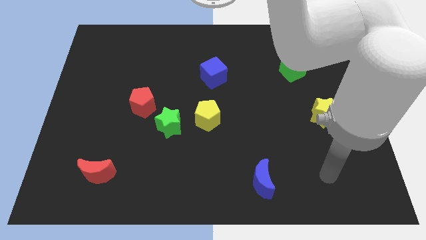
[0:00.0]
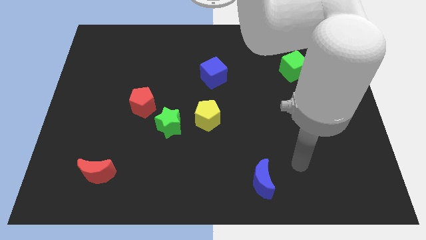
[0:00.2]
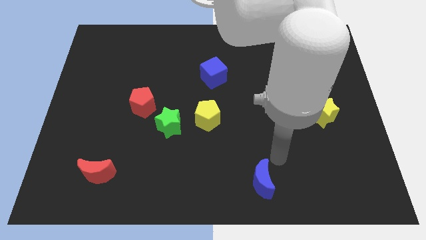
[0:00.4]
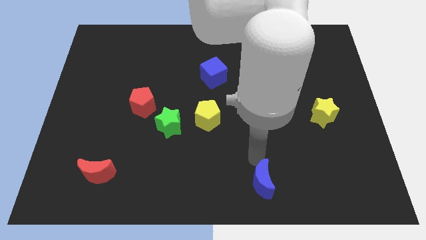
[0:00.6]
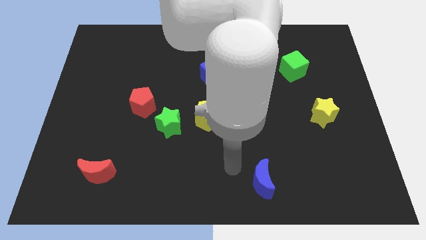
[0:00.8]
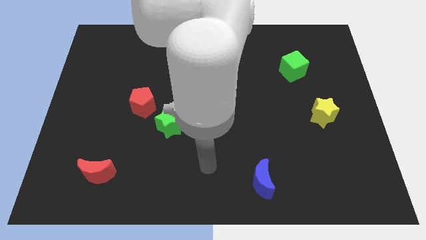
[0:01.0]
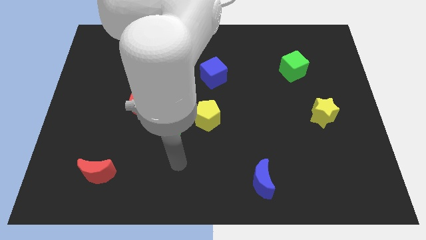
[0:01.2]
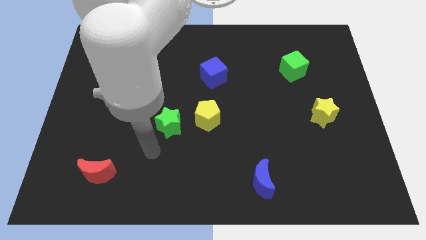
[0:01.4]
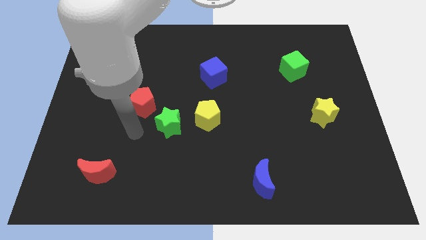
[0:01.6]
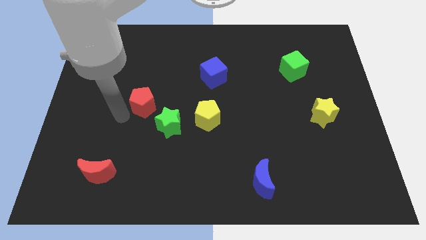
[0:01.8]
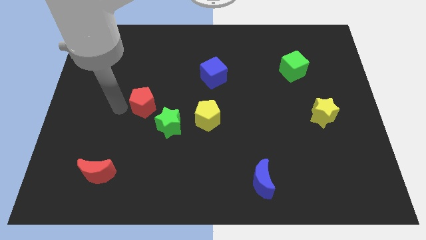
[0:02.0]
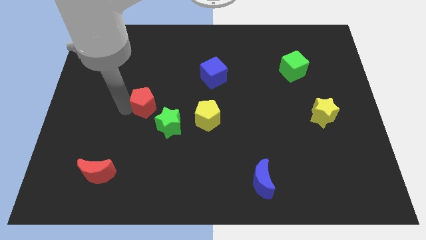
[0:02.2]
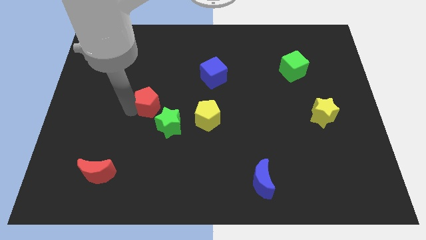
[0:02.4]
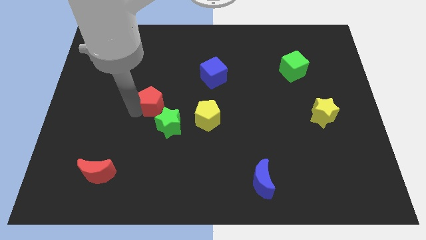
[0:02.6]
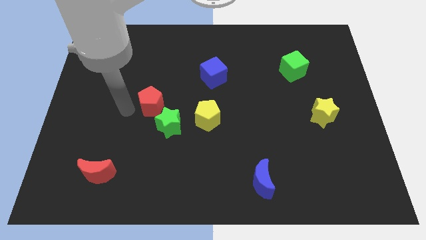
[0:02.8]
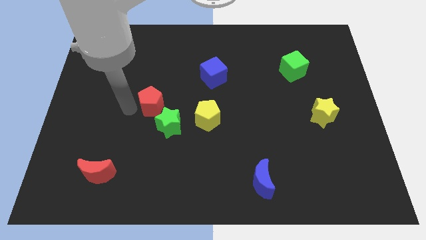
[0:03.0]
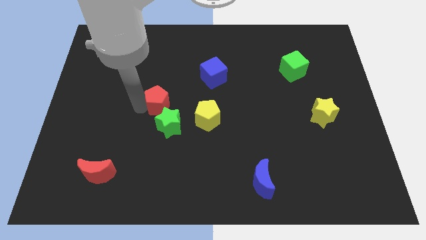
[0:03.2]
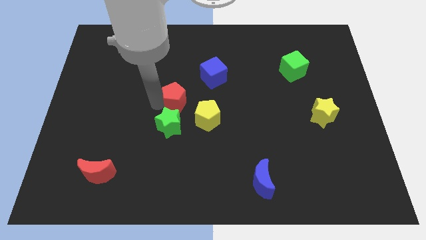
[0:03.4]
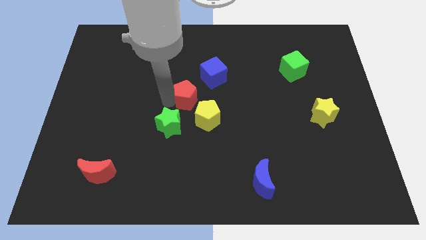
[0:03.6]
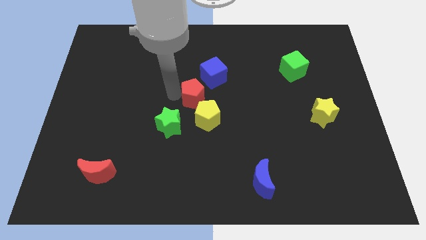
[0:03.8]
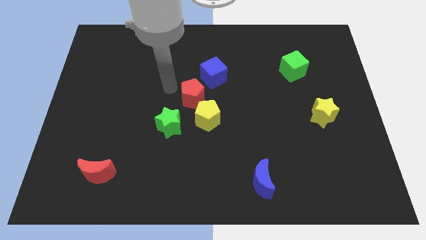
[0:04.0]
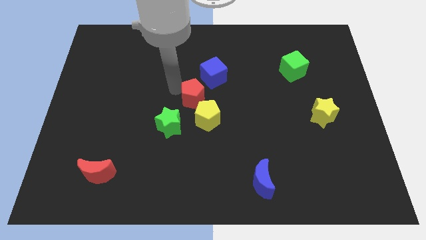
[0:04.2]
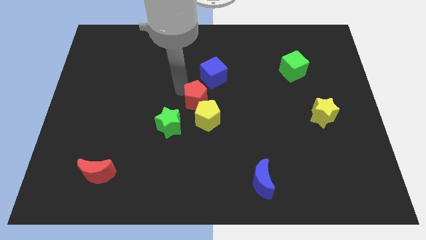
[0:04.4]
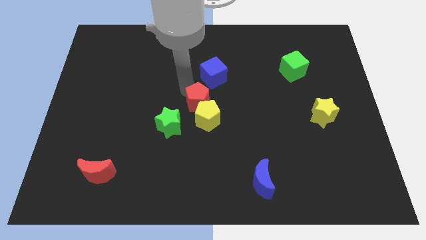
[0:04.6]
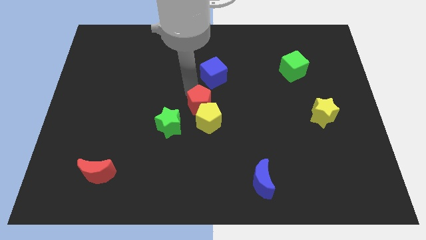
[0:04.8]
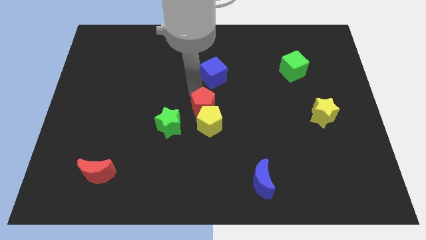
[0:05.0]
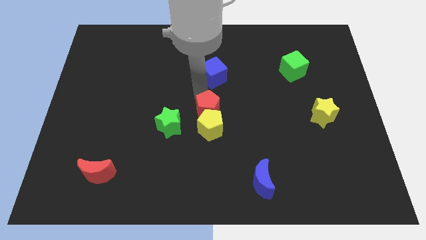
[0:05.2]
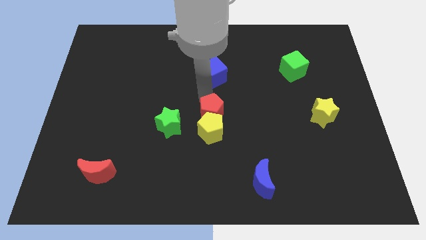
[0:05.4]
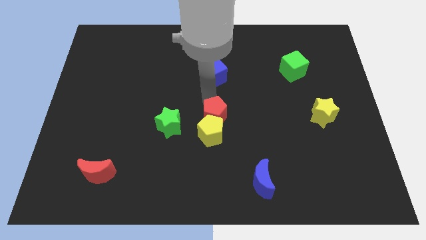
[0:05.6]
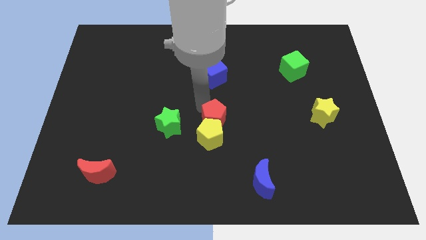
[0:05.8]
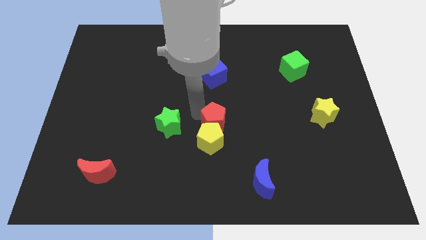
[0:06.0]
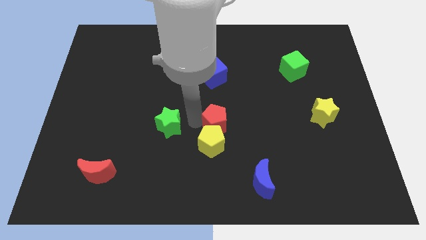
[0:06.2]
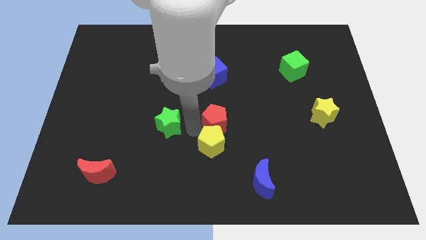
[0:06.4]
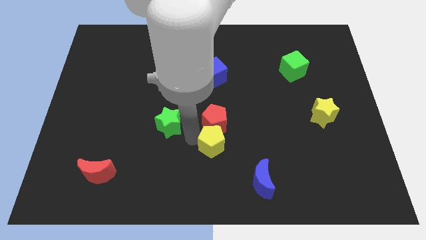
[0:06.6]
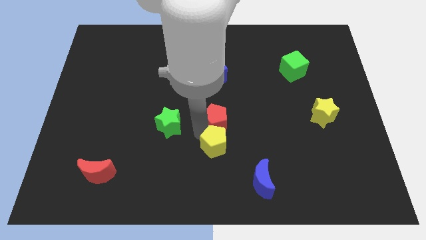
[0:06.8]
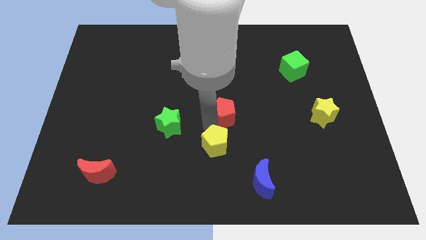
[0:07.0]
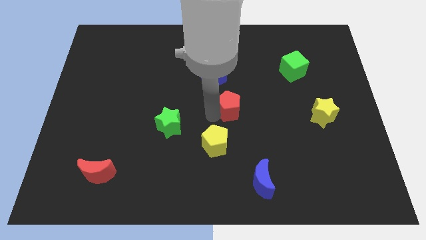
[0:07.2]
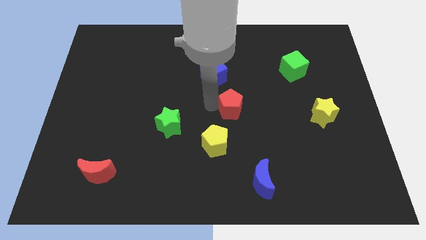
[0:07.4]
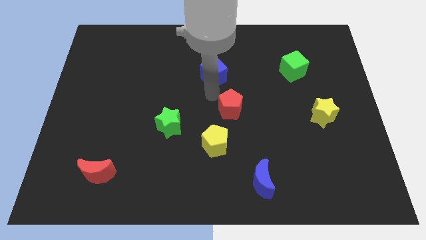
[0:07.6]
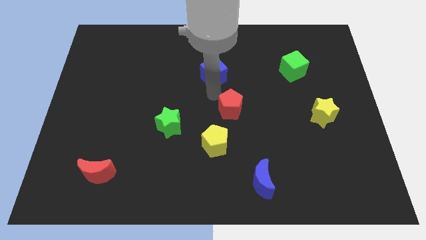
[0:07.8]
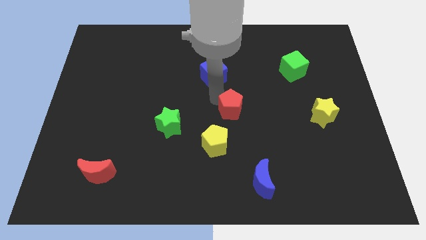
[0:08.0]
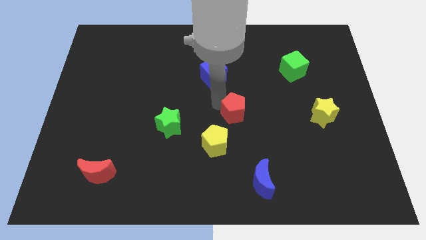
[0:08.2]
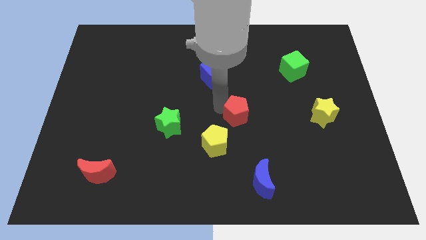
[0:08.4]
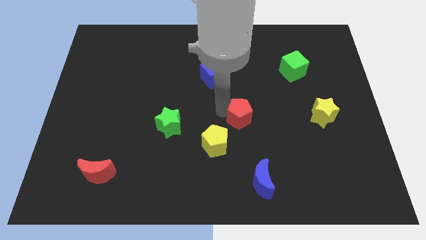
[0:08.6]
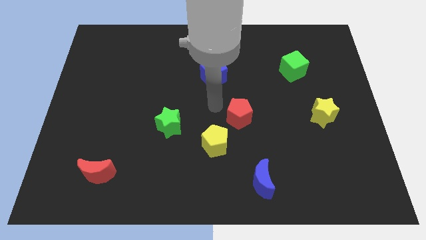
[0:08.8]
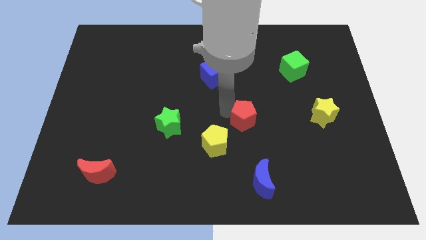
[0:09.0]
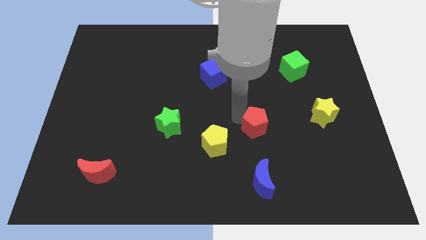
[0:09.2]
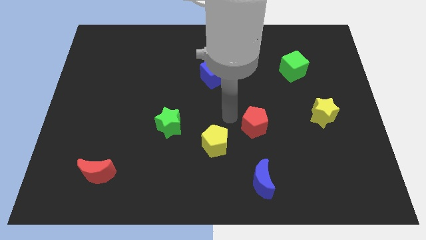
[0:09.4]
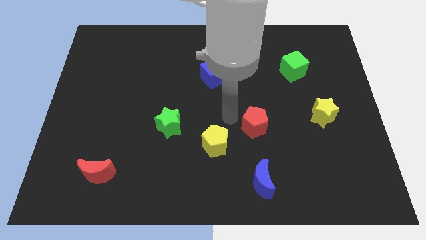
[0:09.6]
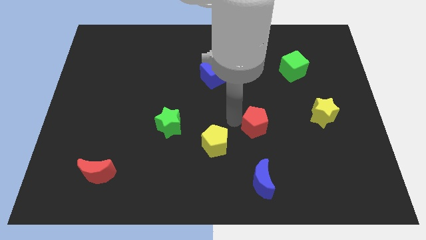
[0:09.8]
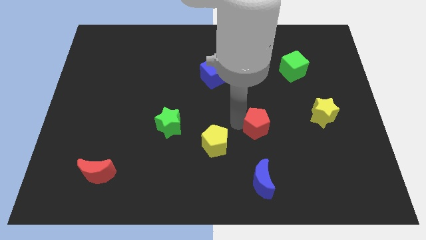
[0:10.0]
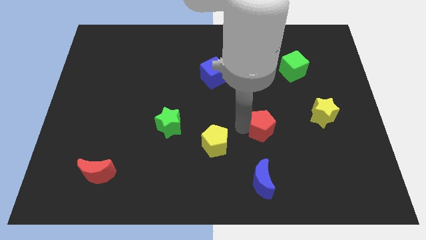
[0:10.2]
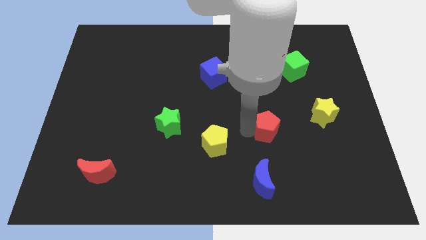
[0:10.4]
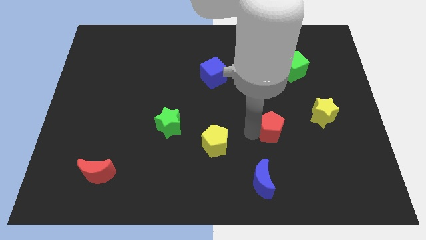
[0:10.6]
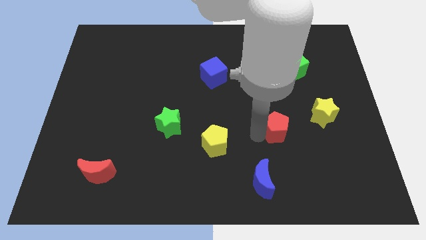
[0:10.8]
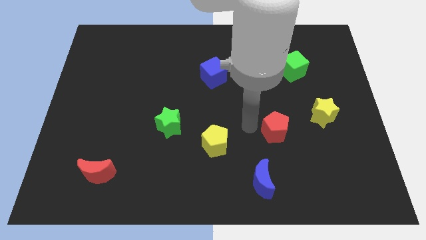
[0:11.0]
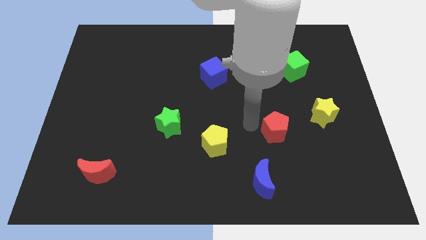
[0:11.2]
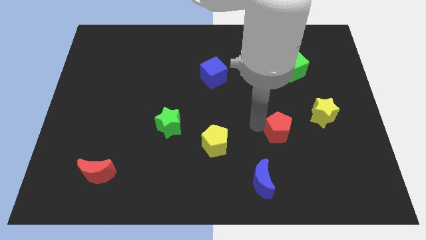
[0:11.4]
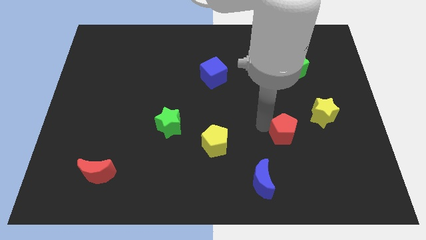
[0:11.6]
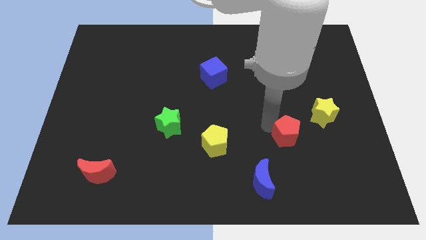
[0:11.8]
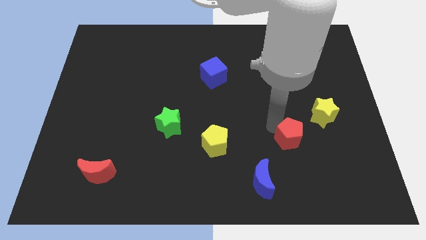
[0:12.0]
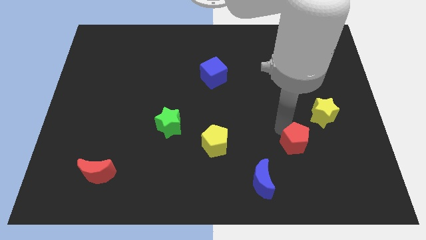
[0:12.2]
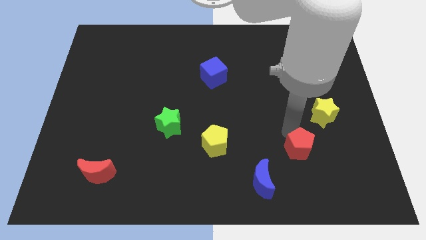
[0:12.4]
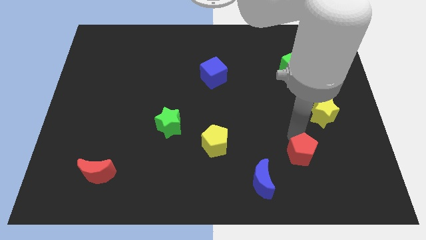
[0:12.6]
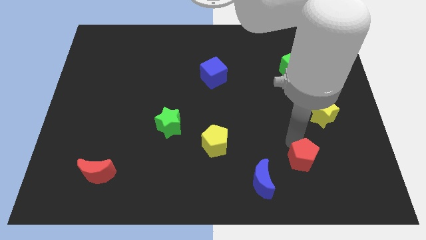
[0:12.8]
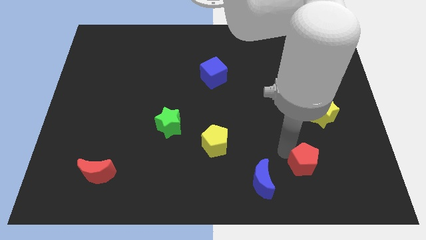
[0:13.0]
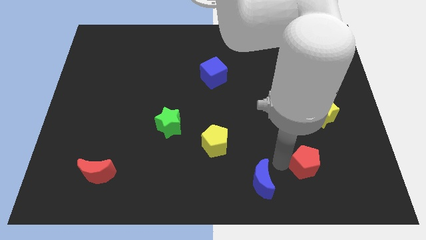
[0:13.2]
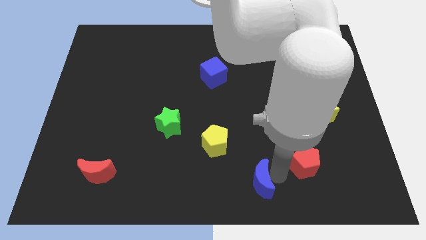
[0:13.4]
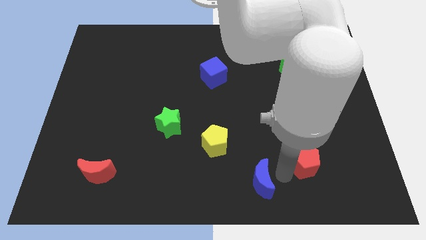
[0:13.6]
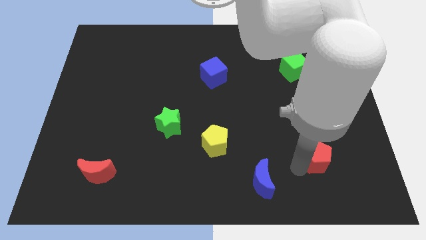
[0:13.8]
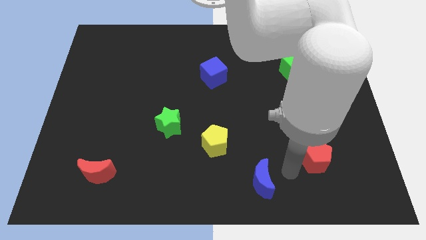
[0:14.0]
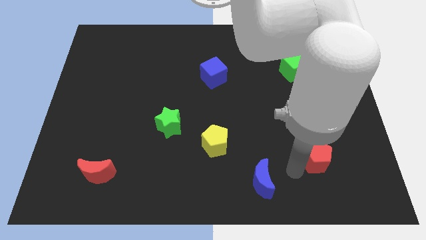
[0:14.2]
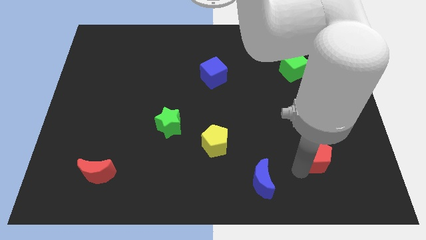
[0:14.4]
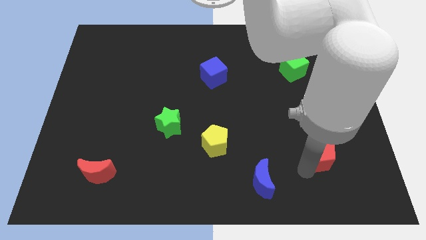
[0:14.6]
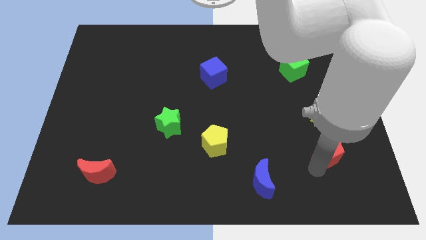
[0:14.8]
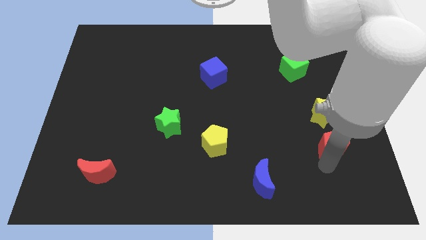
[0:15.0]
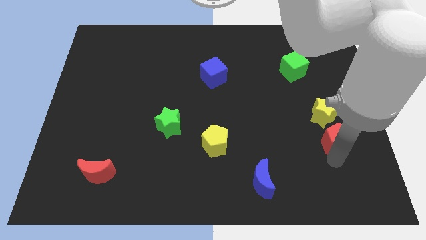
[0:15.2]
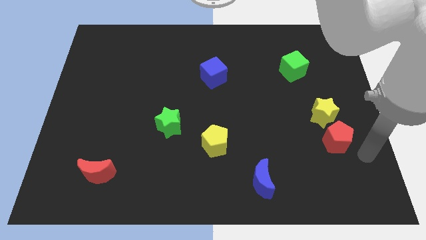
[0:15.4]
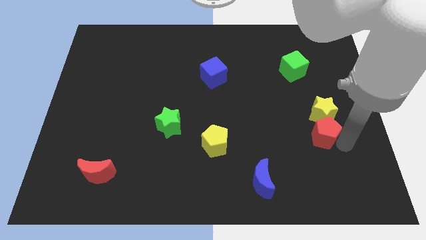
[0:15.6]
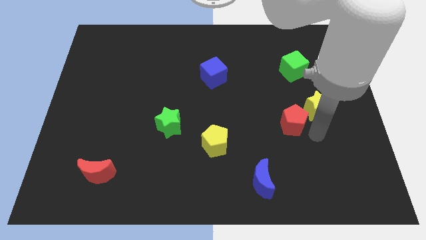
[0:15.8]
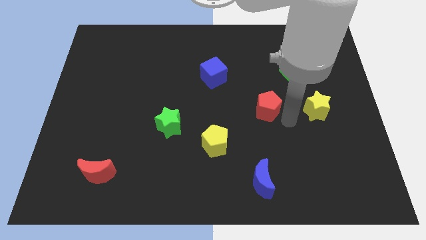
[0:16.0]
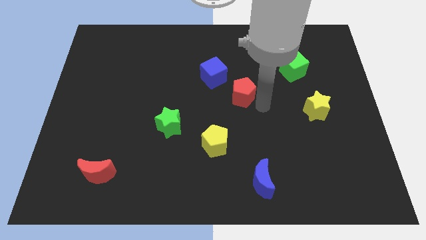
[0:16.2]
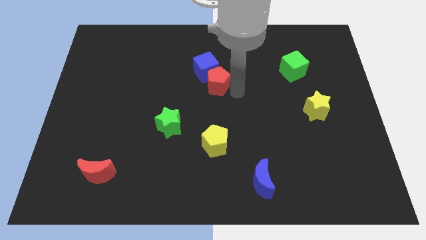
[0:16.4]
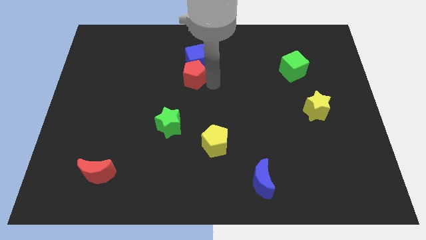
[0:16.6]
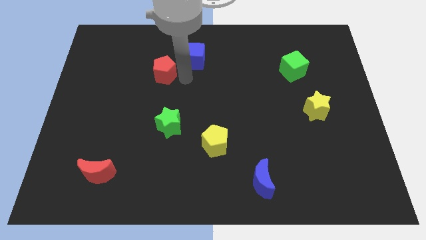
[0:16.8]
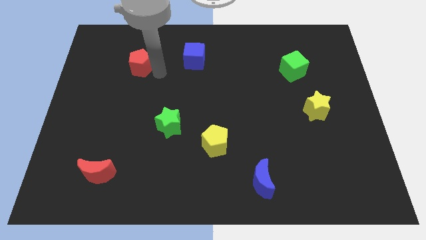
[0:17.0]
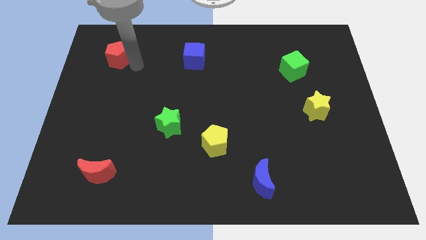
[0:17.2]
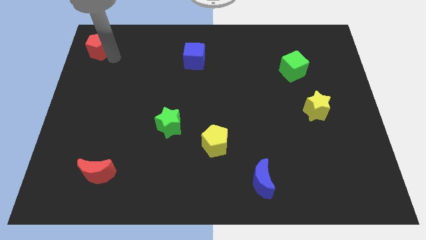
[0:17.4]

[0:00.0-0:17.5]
push the red pentagon to the top left corner
